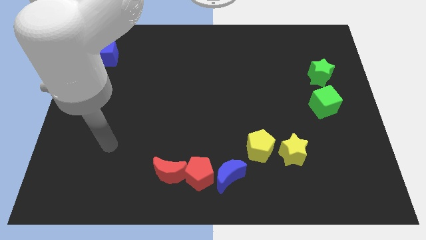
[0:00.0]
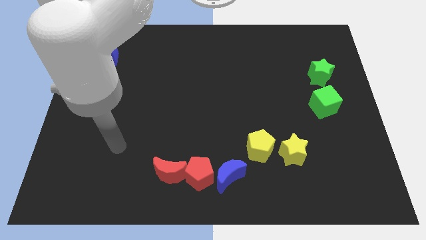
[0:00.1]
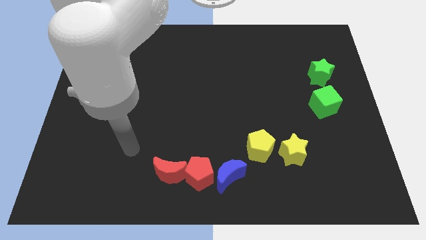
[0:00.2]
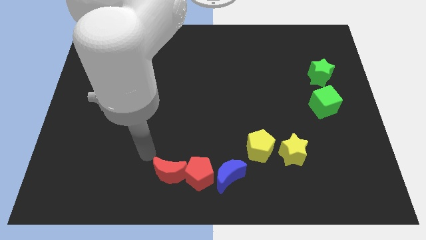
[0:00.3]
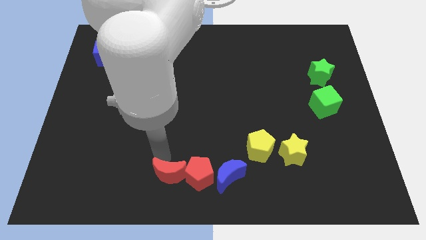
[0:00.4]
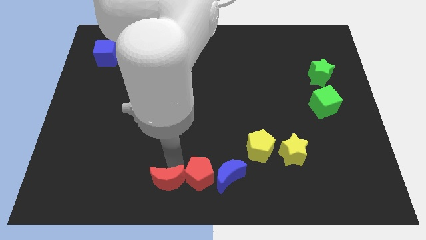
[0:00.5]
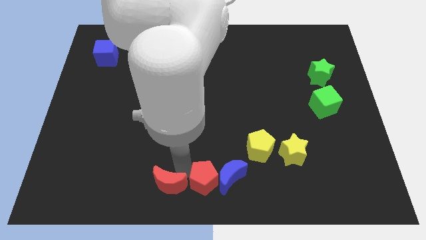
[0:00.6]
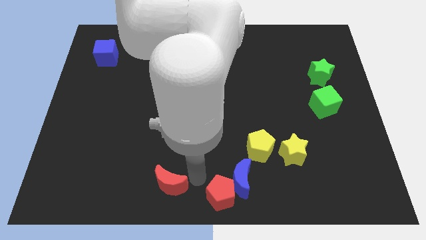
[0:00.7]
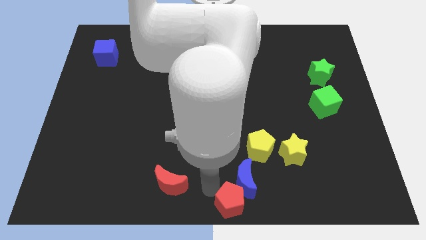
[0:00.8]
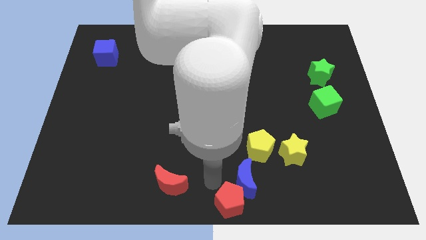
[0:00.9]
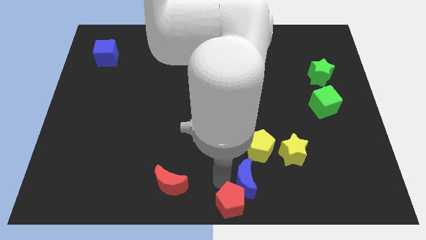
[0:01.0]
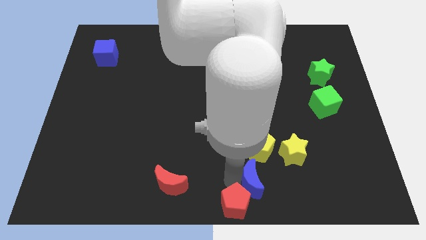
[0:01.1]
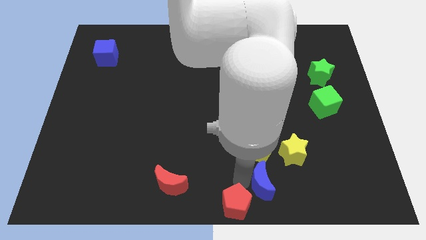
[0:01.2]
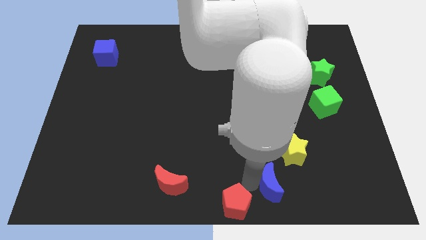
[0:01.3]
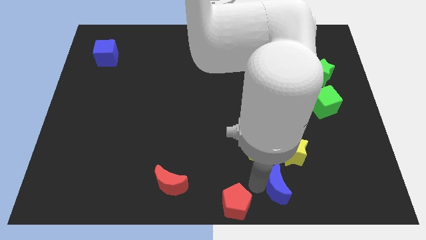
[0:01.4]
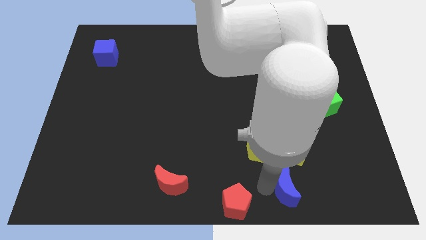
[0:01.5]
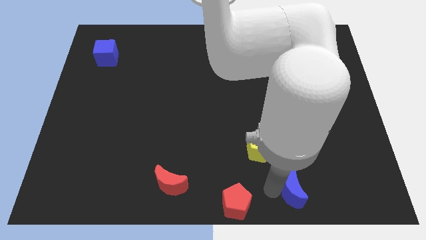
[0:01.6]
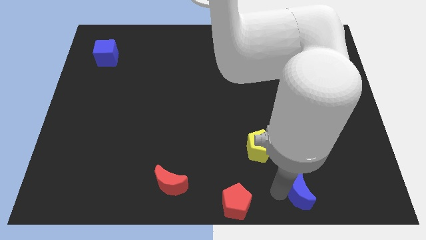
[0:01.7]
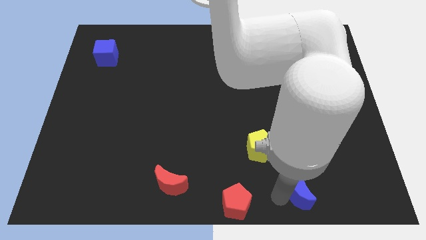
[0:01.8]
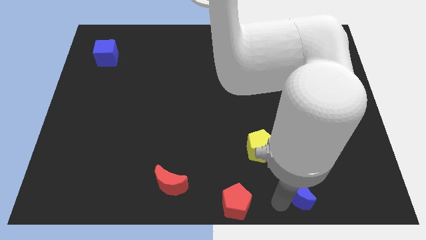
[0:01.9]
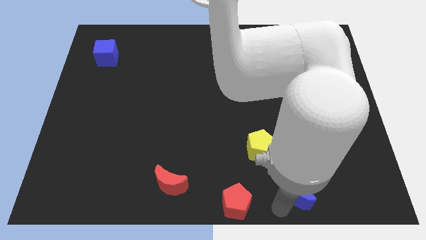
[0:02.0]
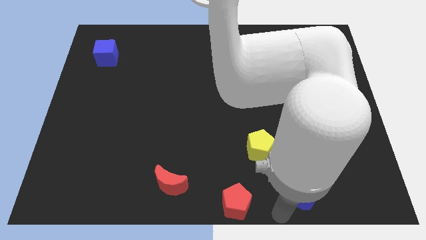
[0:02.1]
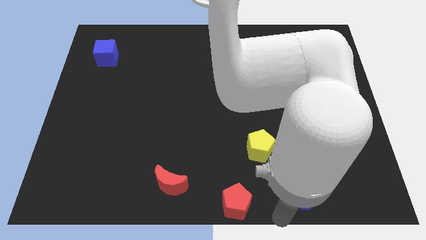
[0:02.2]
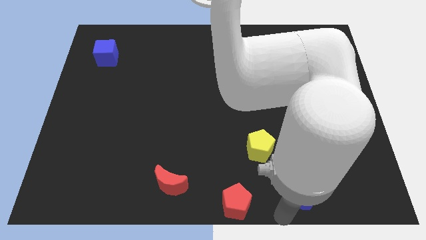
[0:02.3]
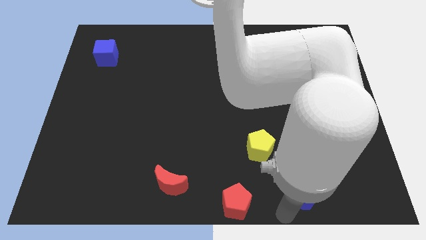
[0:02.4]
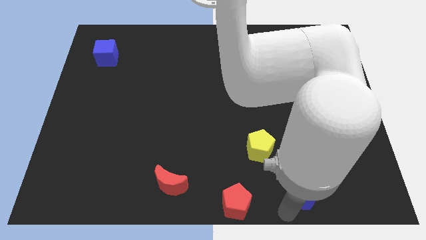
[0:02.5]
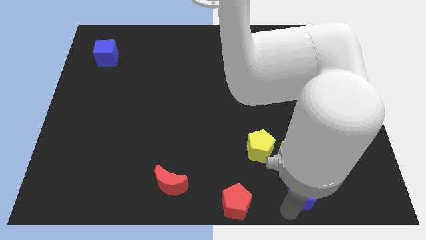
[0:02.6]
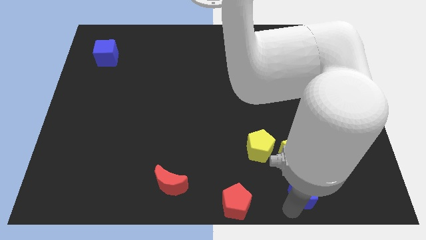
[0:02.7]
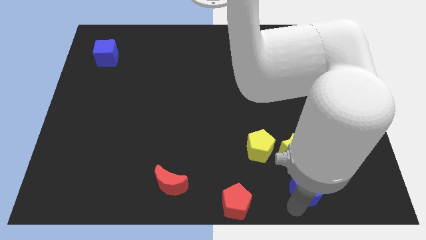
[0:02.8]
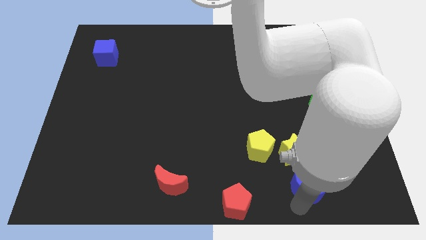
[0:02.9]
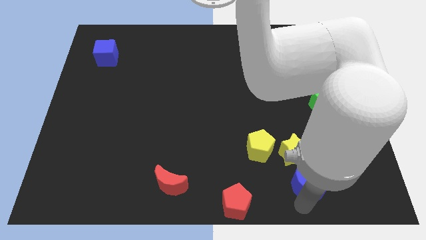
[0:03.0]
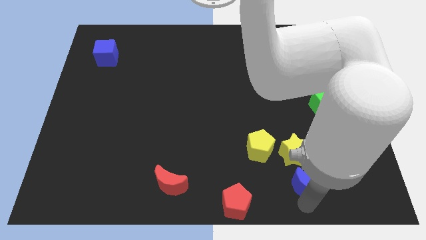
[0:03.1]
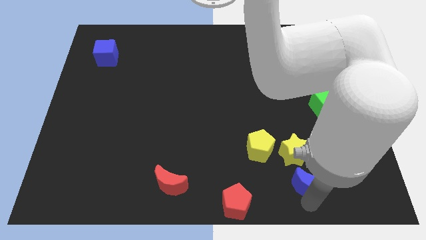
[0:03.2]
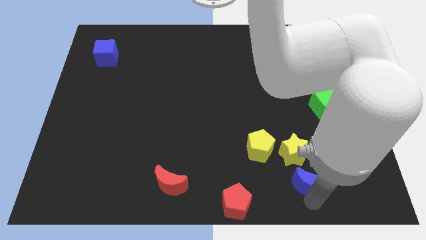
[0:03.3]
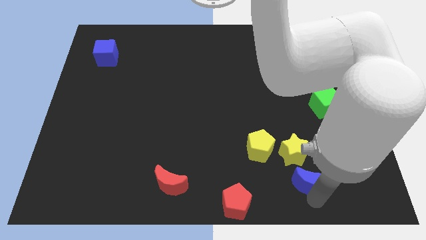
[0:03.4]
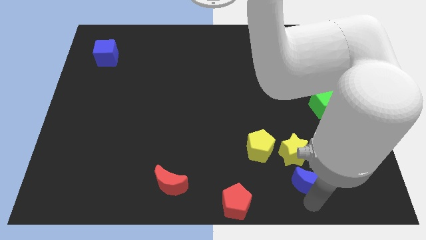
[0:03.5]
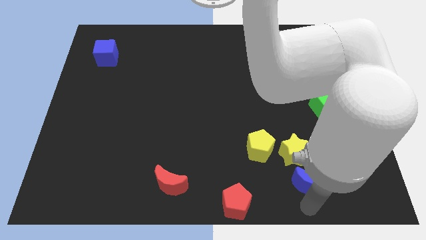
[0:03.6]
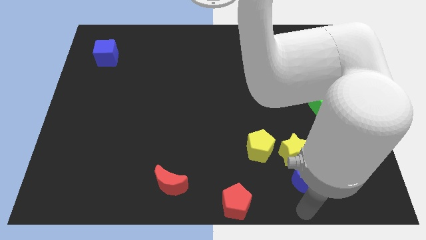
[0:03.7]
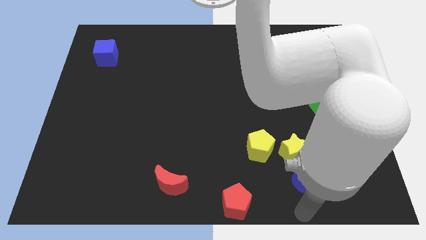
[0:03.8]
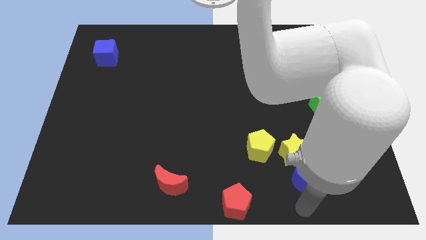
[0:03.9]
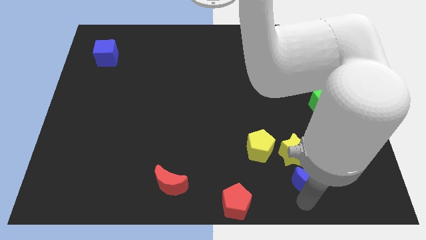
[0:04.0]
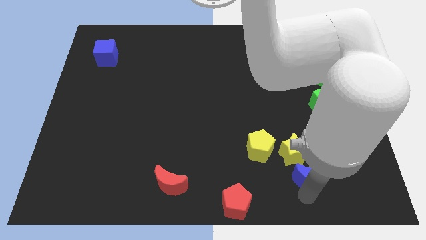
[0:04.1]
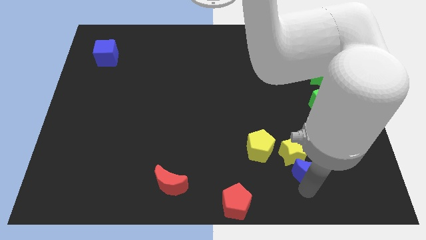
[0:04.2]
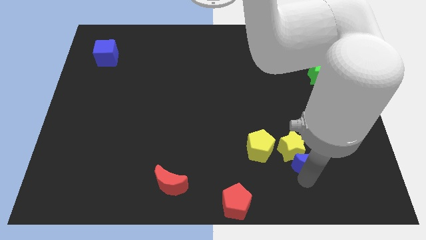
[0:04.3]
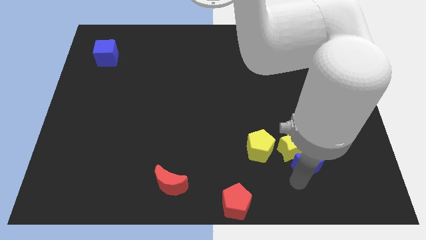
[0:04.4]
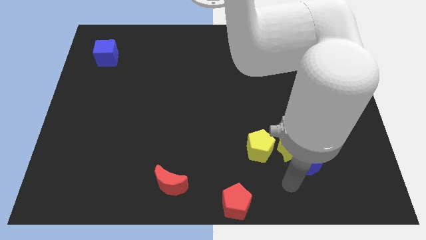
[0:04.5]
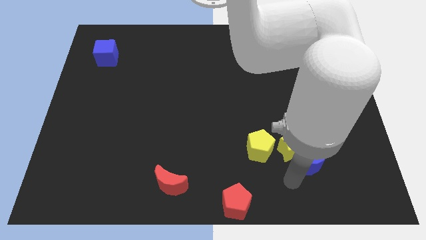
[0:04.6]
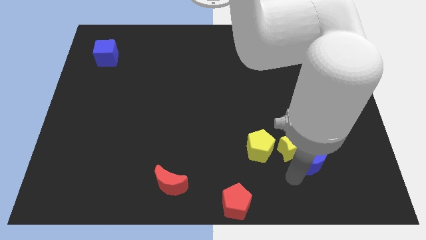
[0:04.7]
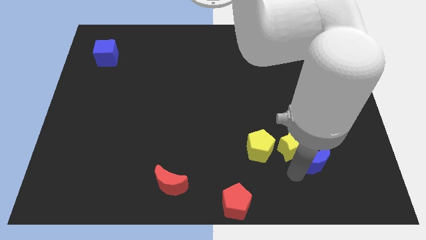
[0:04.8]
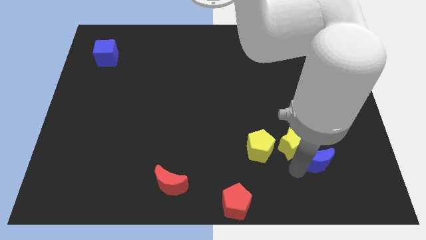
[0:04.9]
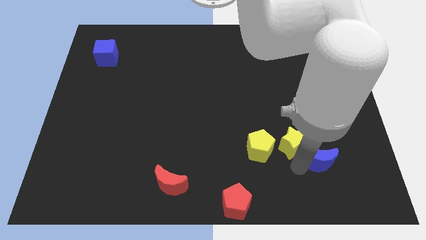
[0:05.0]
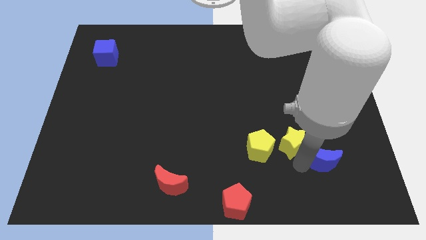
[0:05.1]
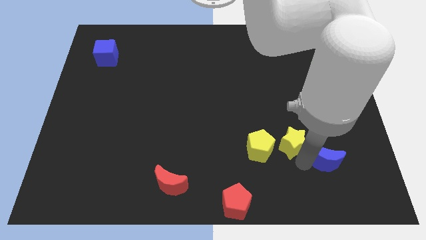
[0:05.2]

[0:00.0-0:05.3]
slide the blue moon below the green cube

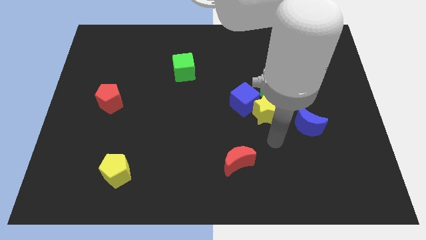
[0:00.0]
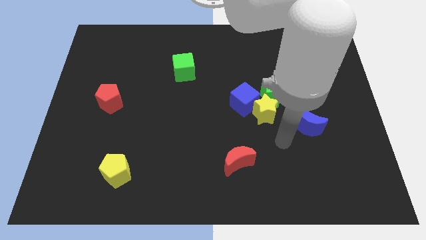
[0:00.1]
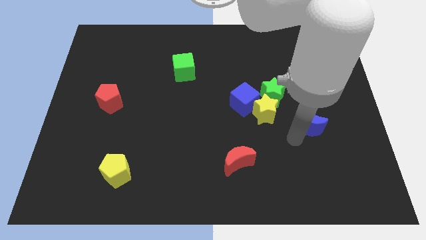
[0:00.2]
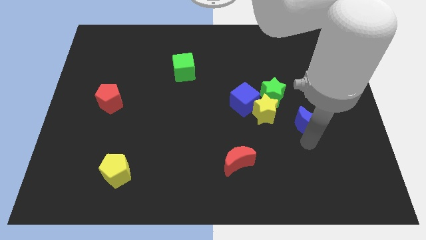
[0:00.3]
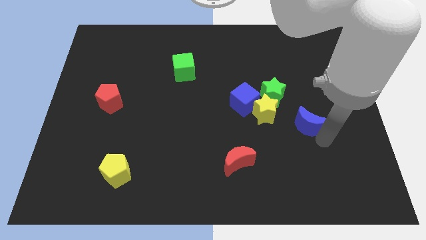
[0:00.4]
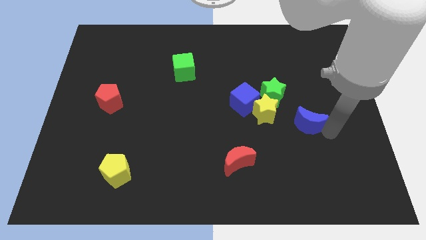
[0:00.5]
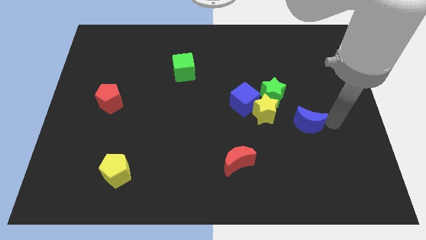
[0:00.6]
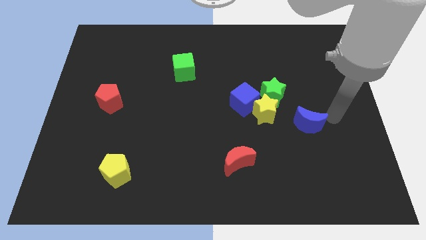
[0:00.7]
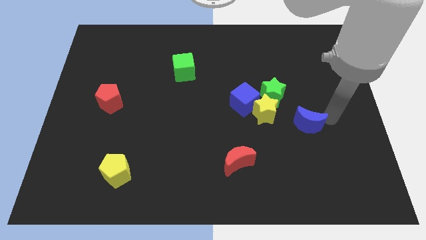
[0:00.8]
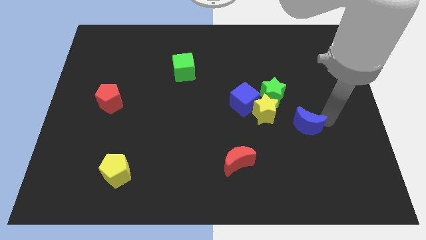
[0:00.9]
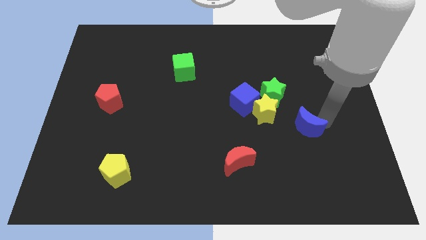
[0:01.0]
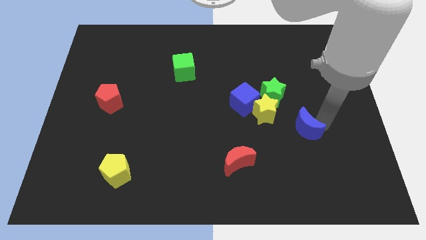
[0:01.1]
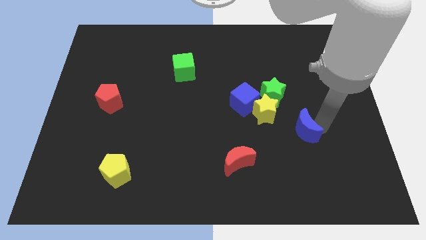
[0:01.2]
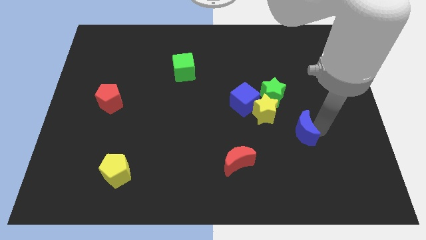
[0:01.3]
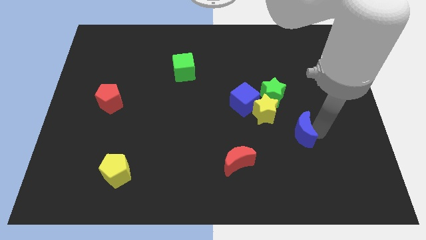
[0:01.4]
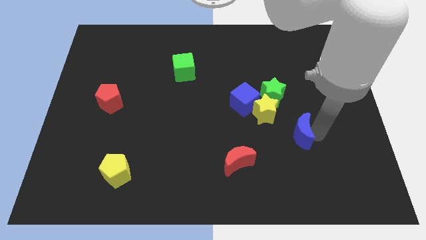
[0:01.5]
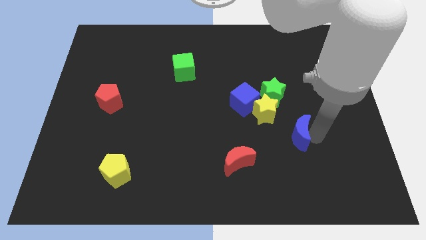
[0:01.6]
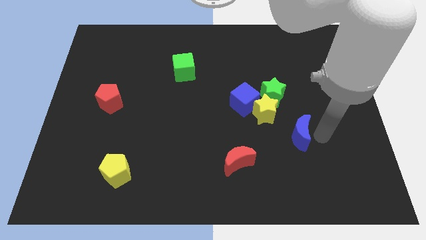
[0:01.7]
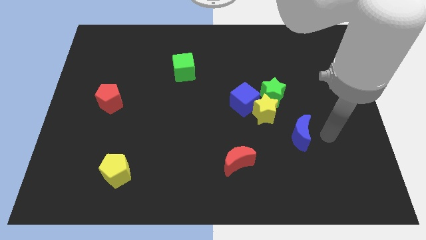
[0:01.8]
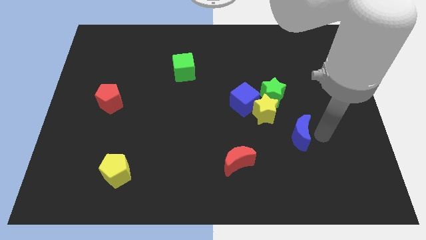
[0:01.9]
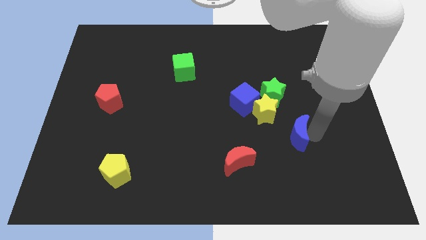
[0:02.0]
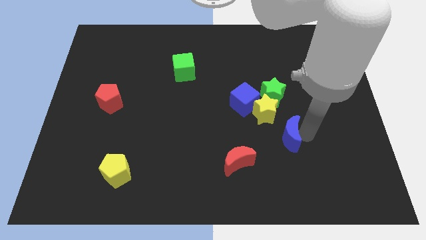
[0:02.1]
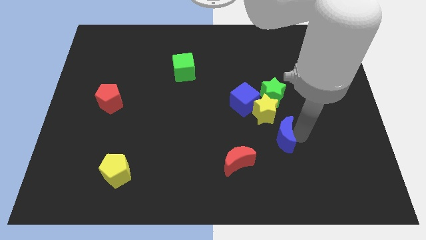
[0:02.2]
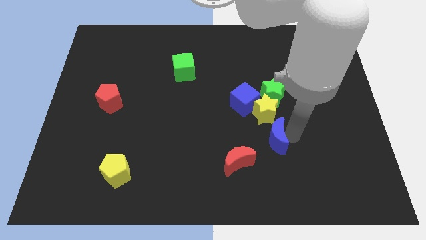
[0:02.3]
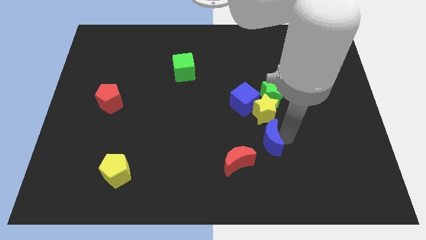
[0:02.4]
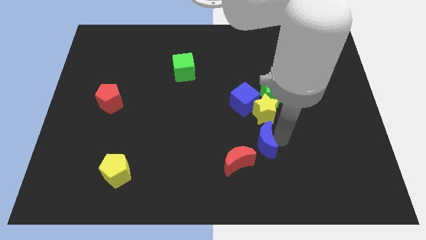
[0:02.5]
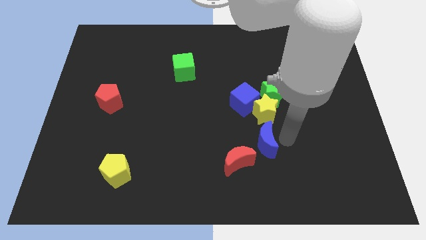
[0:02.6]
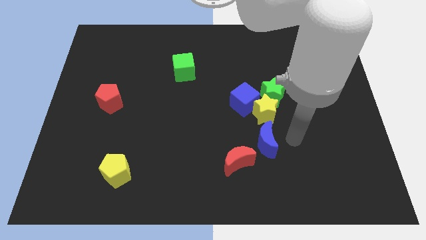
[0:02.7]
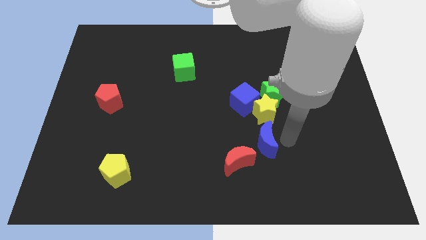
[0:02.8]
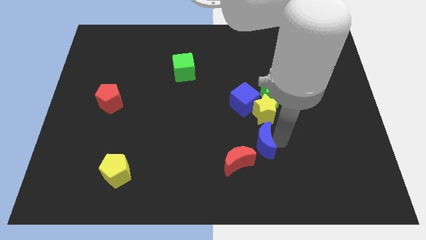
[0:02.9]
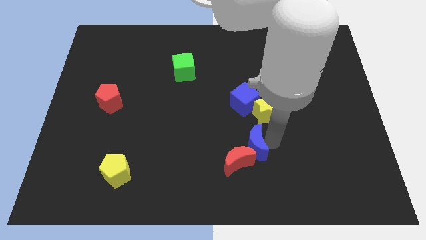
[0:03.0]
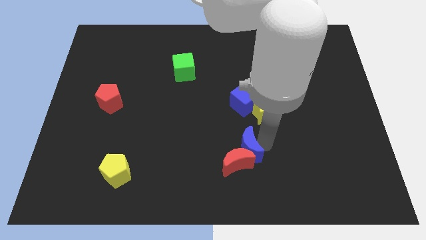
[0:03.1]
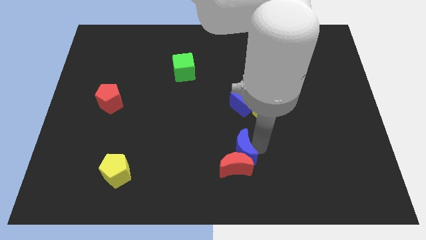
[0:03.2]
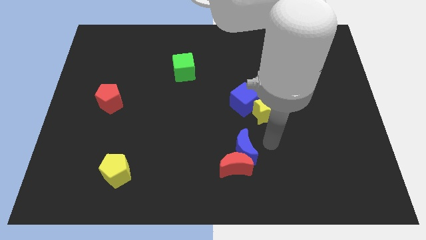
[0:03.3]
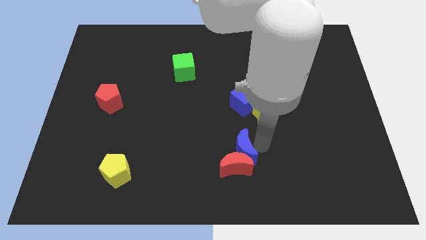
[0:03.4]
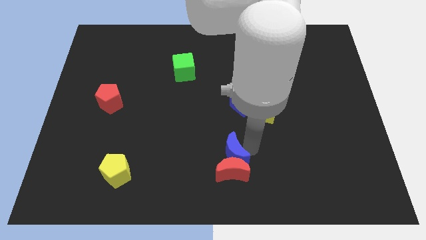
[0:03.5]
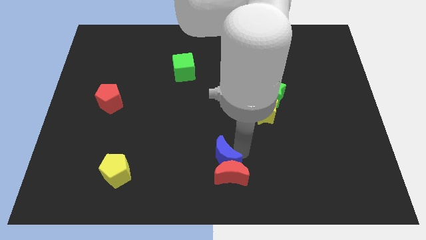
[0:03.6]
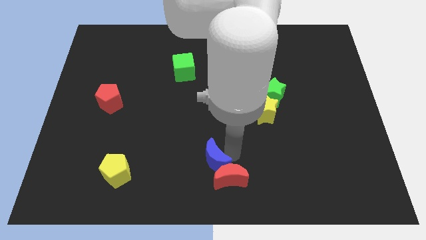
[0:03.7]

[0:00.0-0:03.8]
move the blue moon left of the red moon
